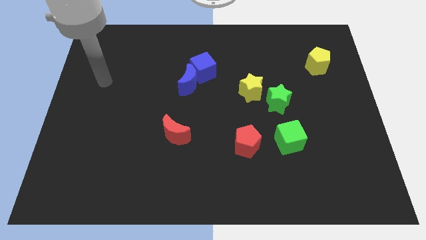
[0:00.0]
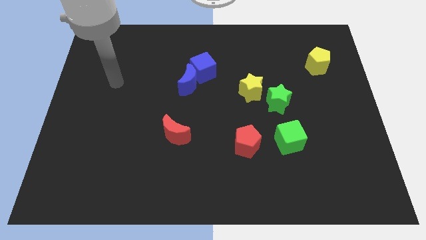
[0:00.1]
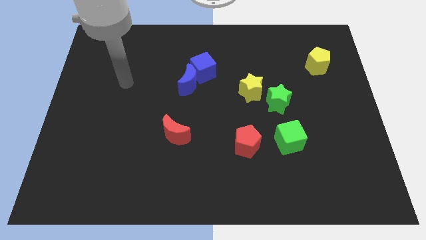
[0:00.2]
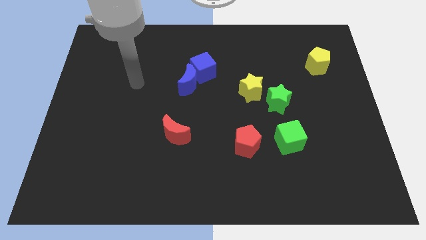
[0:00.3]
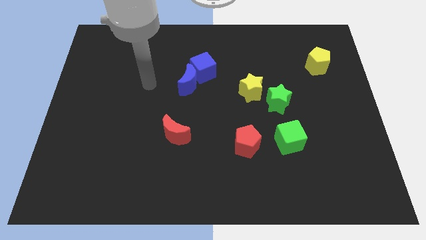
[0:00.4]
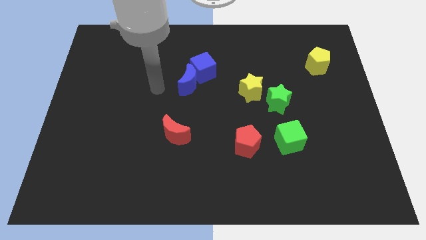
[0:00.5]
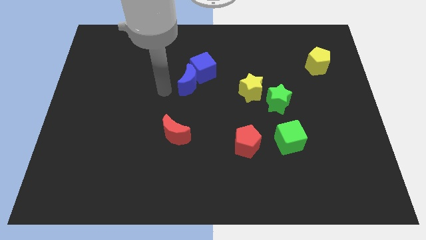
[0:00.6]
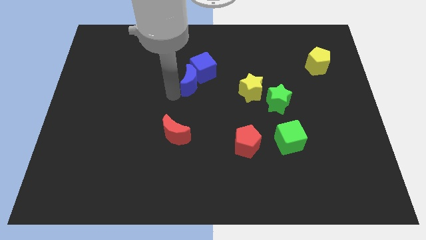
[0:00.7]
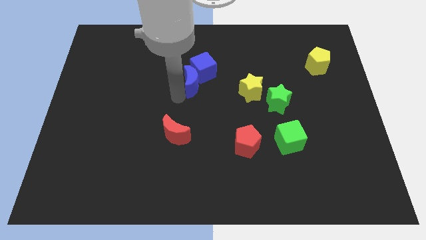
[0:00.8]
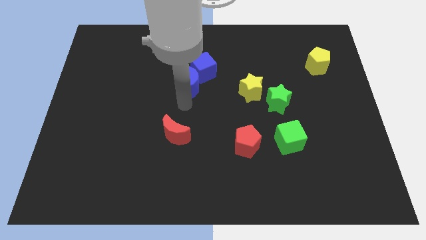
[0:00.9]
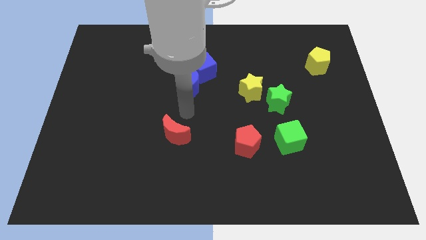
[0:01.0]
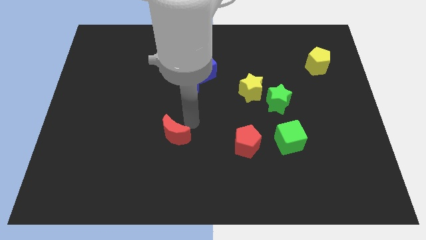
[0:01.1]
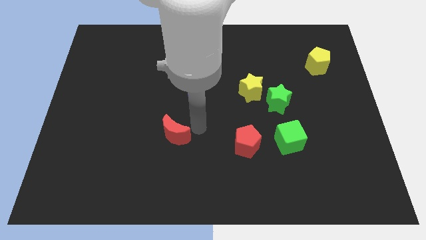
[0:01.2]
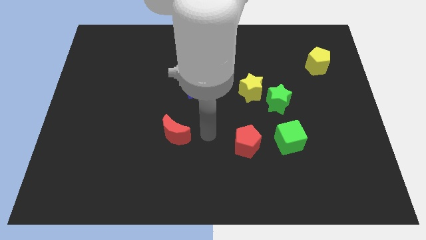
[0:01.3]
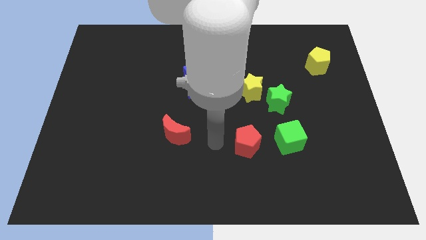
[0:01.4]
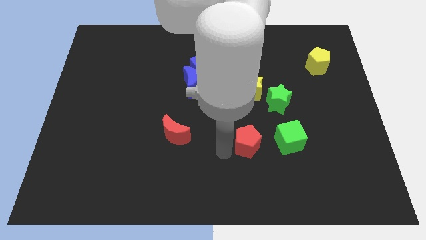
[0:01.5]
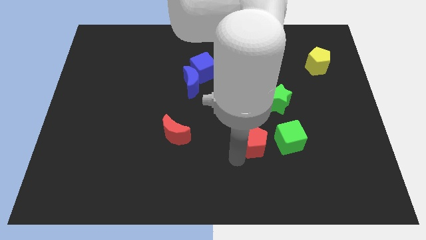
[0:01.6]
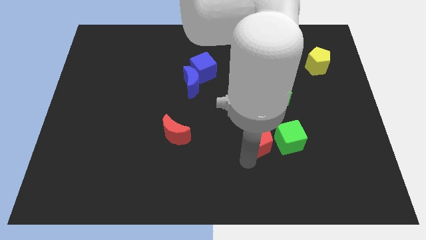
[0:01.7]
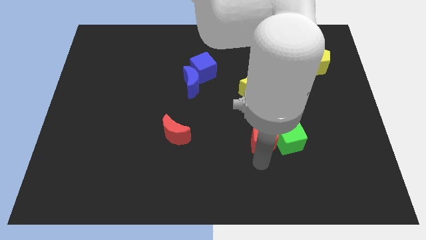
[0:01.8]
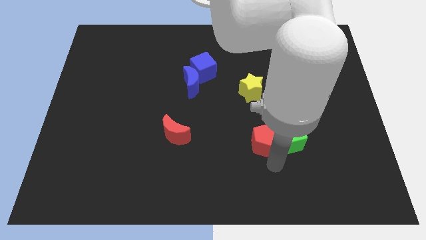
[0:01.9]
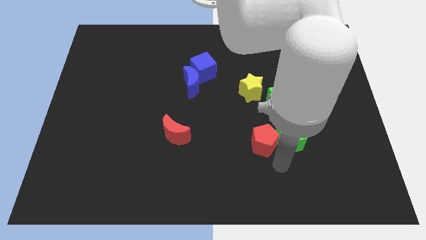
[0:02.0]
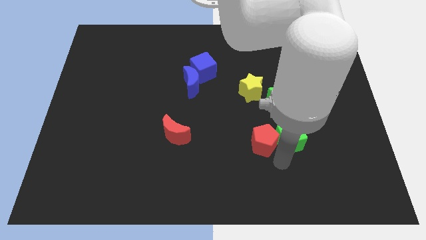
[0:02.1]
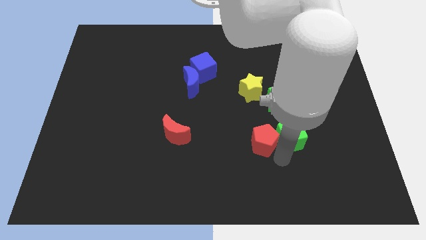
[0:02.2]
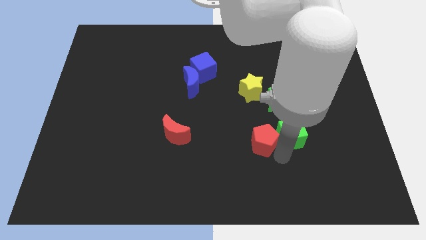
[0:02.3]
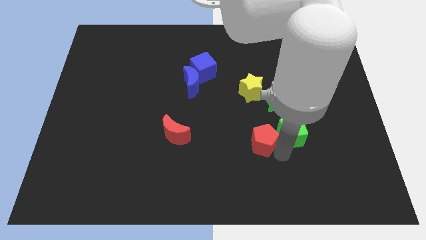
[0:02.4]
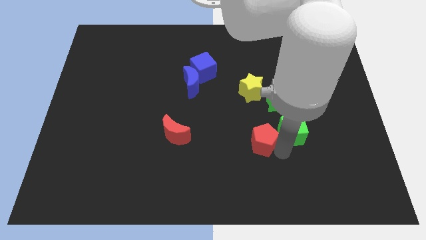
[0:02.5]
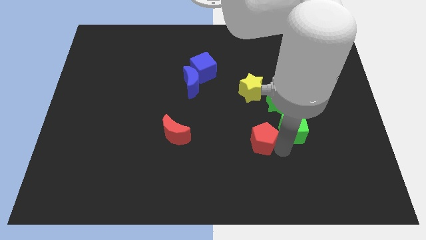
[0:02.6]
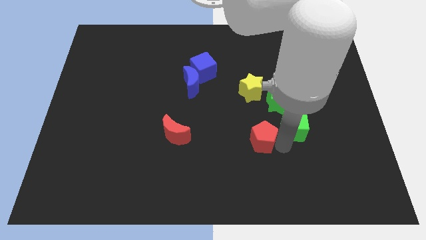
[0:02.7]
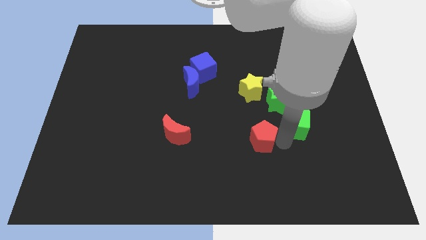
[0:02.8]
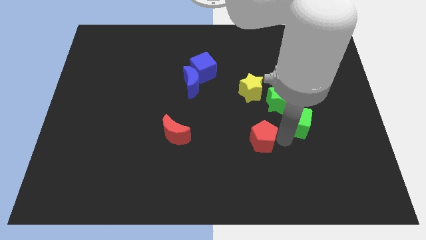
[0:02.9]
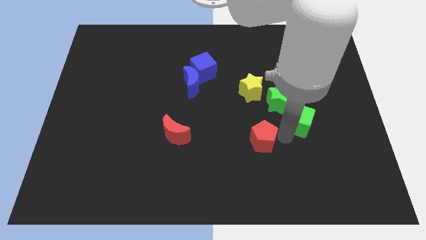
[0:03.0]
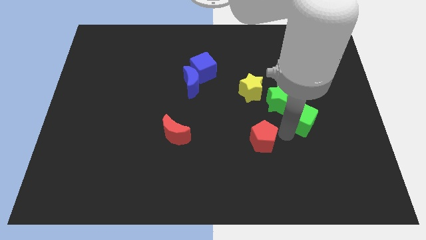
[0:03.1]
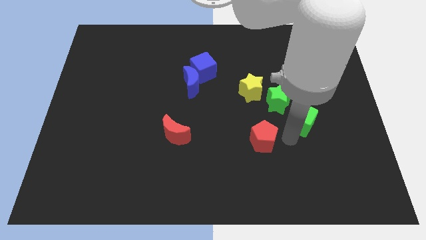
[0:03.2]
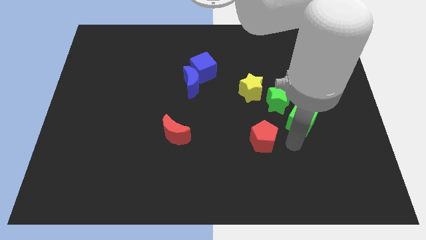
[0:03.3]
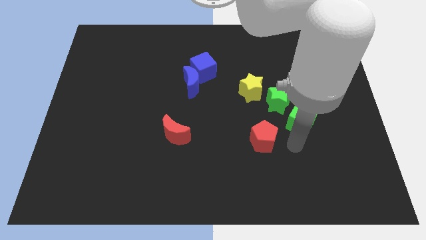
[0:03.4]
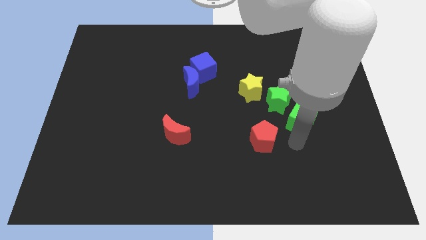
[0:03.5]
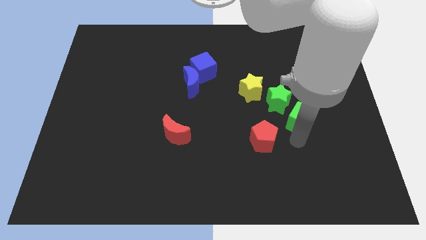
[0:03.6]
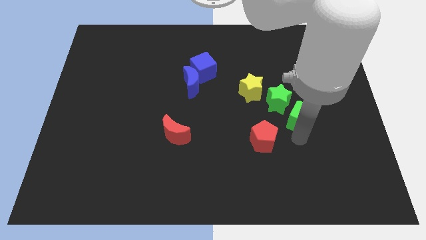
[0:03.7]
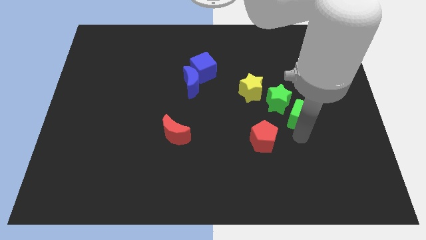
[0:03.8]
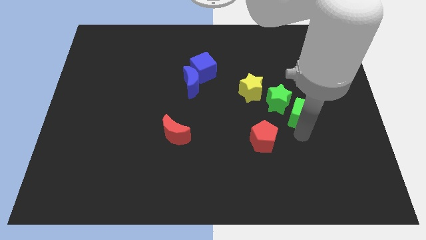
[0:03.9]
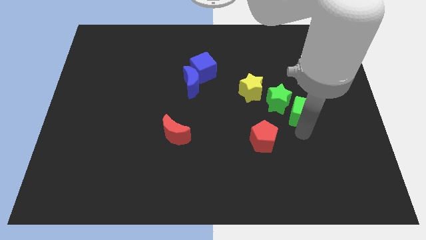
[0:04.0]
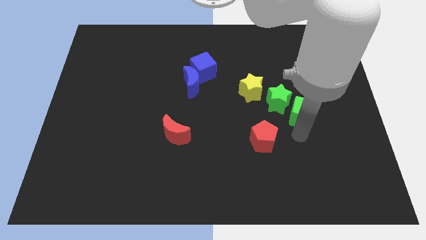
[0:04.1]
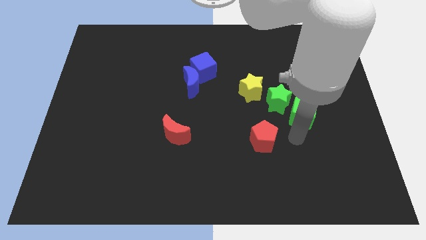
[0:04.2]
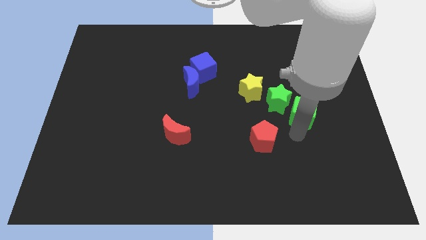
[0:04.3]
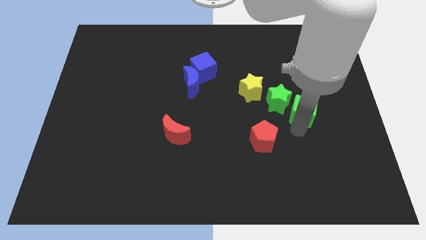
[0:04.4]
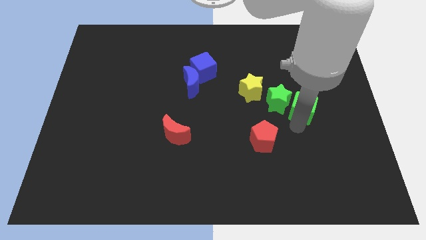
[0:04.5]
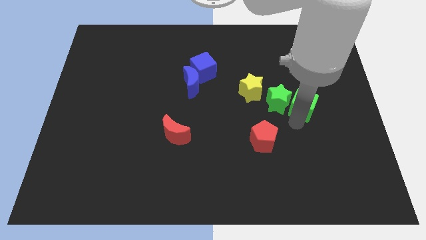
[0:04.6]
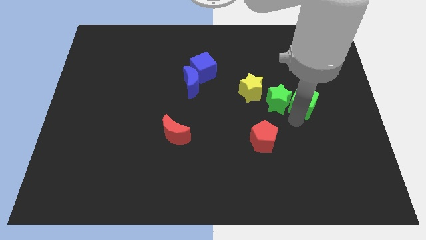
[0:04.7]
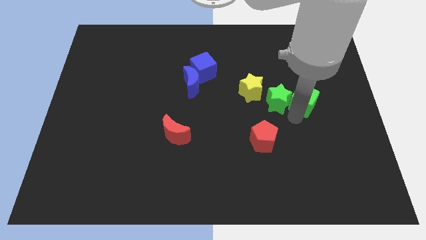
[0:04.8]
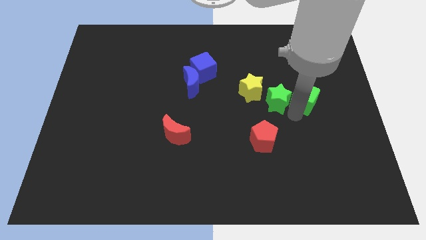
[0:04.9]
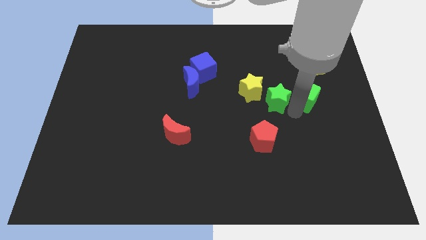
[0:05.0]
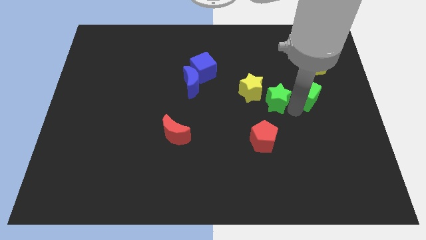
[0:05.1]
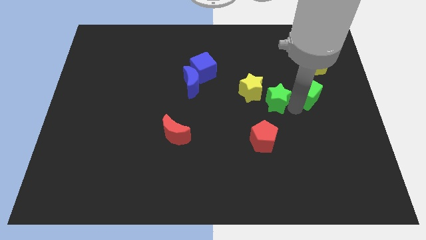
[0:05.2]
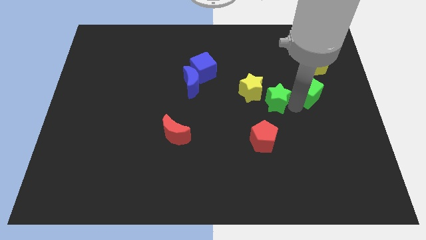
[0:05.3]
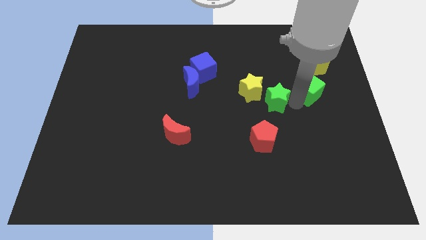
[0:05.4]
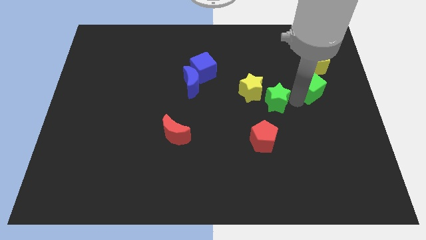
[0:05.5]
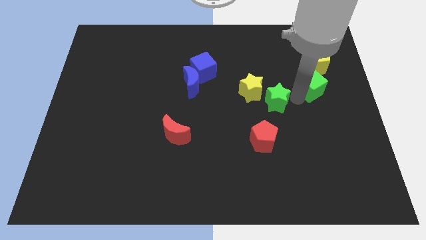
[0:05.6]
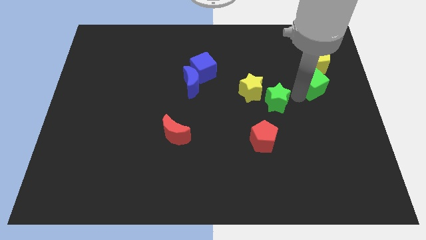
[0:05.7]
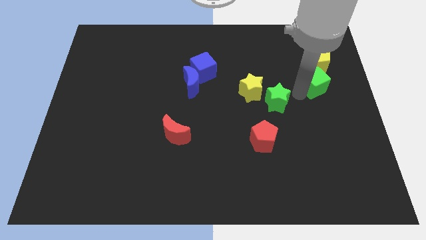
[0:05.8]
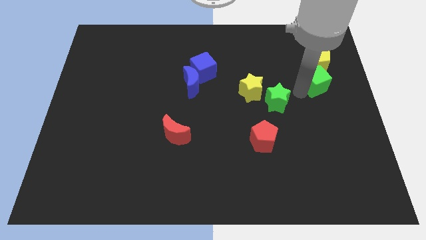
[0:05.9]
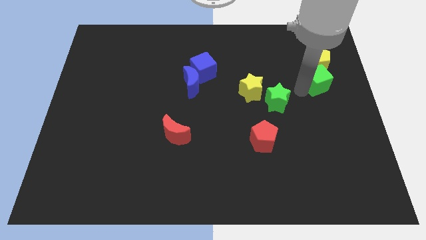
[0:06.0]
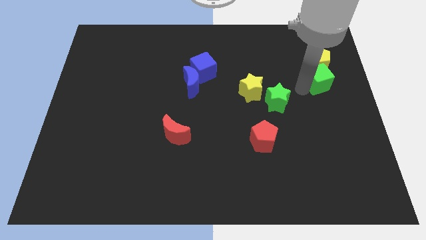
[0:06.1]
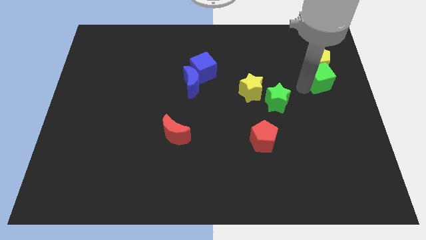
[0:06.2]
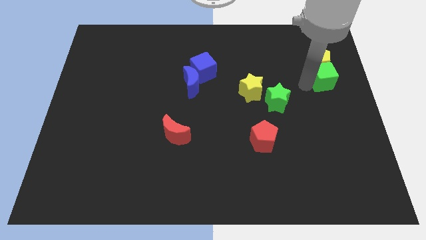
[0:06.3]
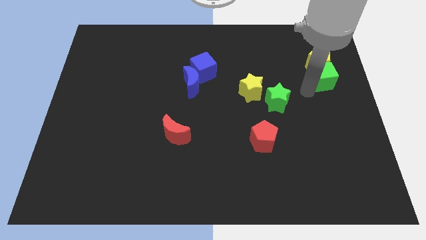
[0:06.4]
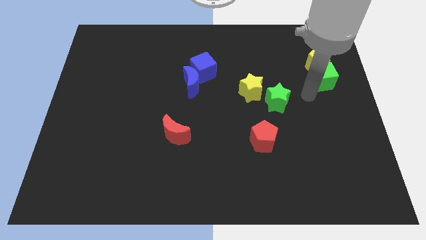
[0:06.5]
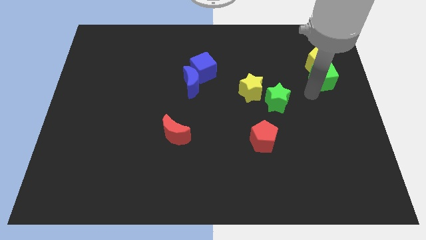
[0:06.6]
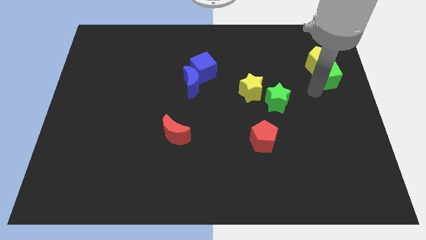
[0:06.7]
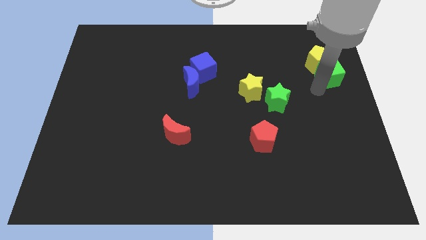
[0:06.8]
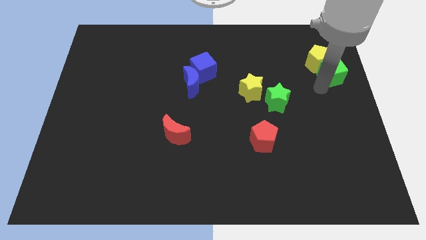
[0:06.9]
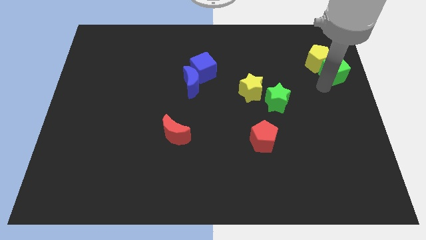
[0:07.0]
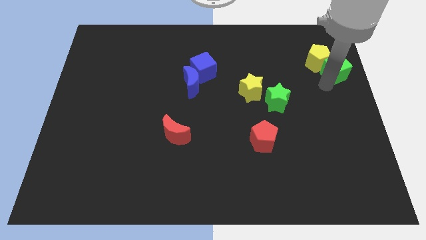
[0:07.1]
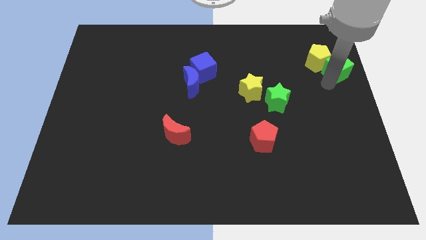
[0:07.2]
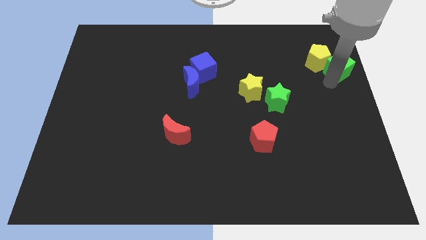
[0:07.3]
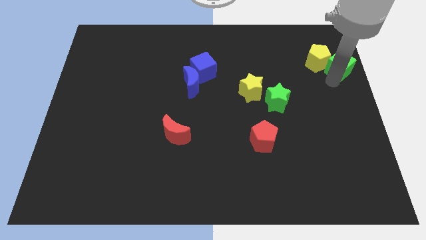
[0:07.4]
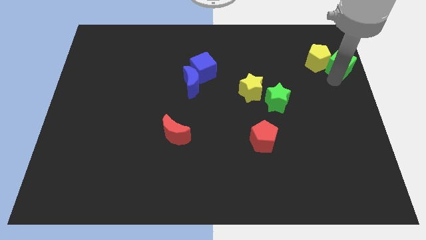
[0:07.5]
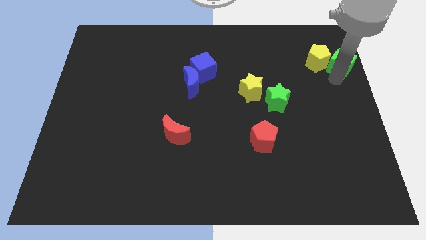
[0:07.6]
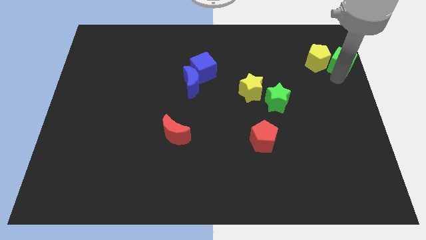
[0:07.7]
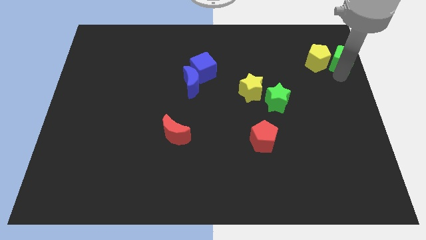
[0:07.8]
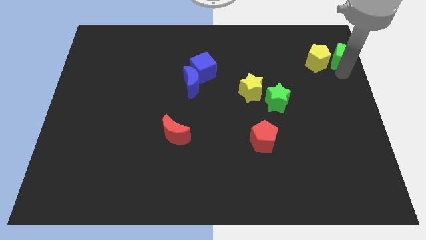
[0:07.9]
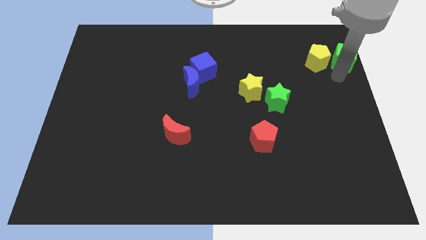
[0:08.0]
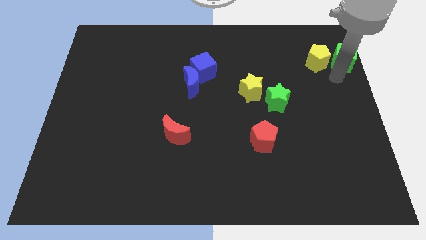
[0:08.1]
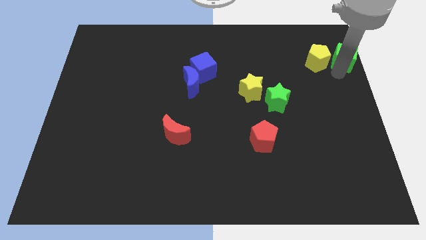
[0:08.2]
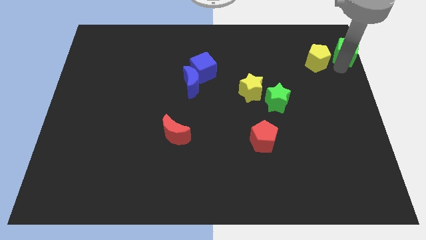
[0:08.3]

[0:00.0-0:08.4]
put the green cube to the top right corner
